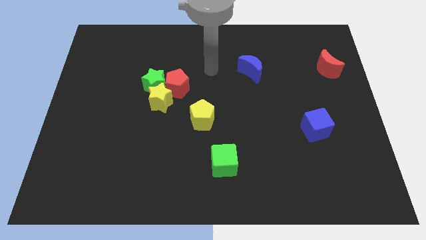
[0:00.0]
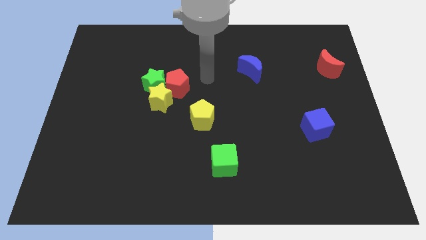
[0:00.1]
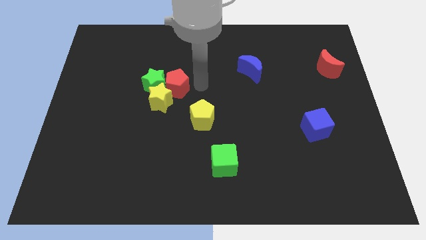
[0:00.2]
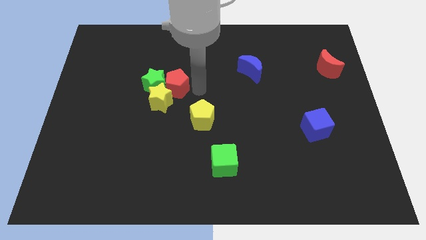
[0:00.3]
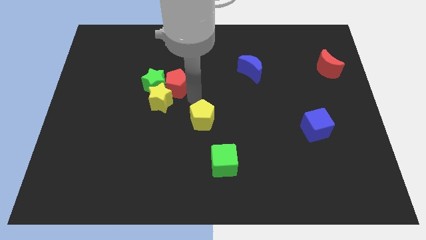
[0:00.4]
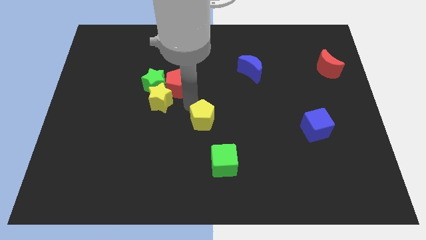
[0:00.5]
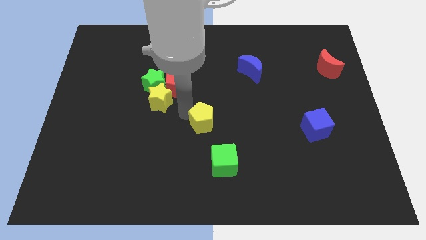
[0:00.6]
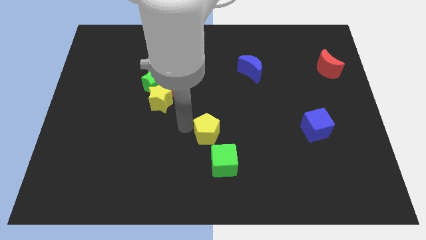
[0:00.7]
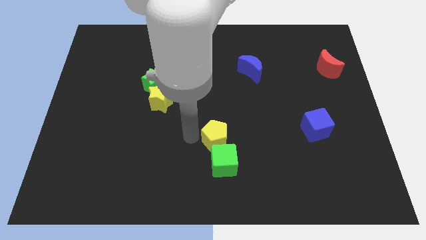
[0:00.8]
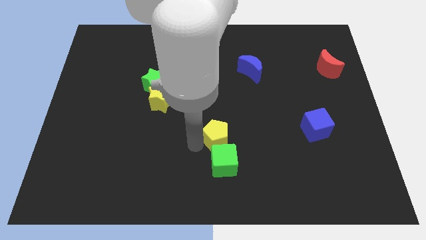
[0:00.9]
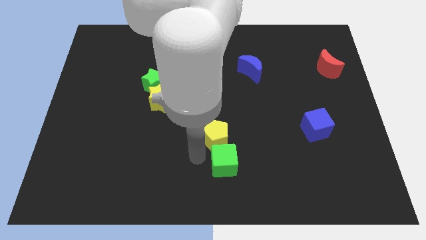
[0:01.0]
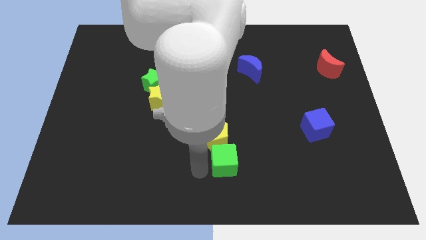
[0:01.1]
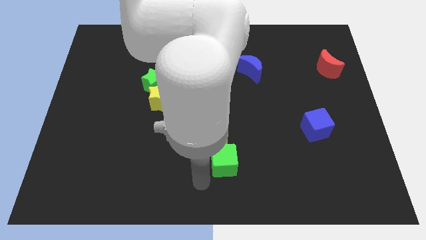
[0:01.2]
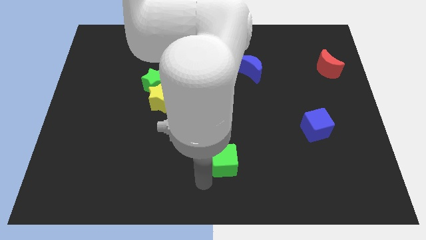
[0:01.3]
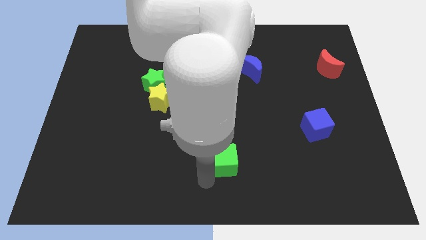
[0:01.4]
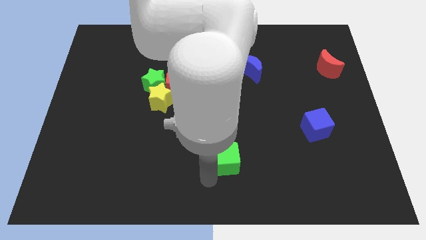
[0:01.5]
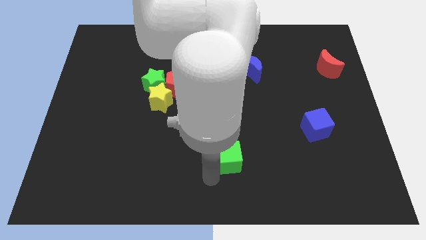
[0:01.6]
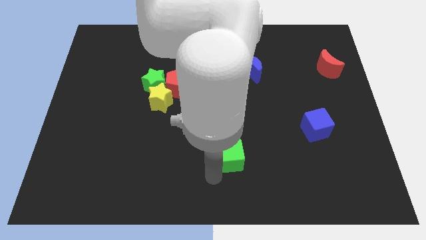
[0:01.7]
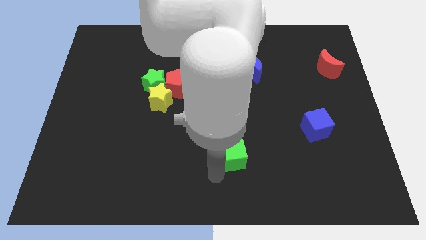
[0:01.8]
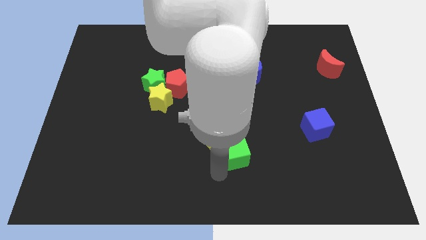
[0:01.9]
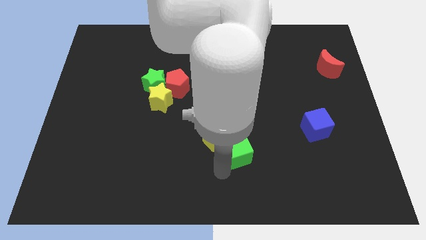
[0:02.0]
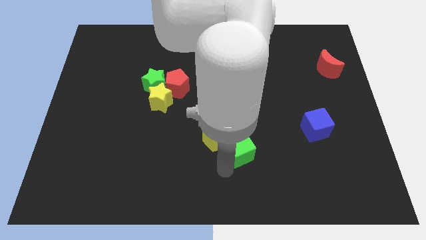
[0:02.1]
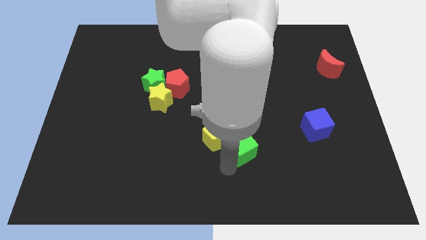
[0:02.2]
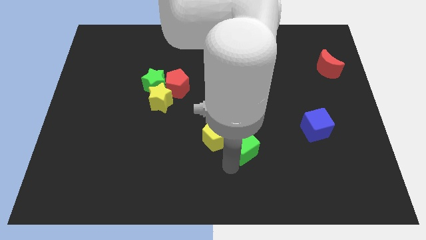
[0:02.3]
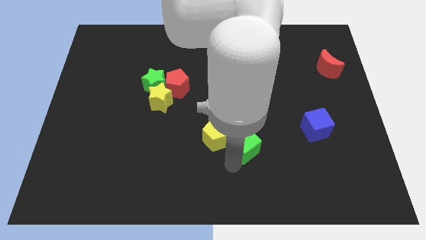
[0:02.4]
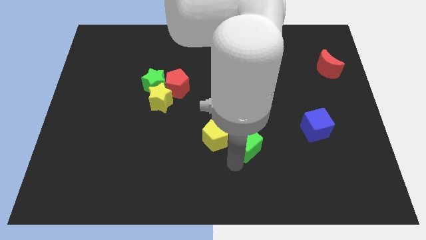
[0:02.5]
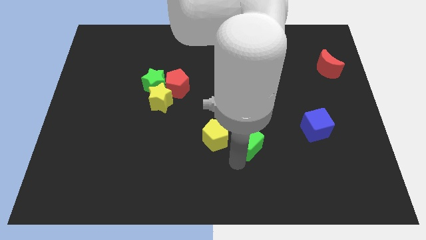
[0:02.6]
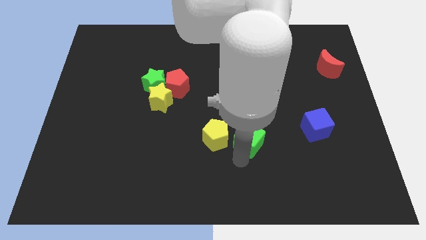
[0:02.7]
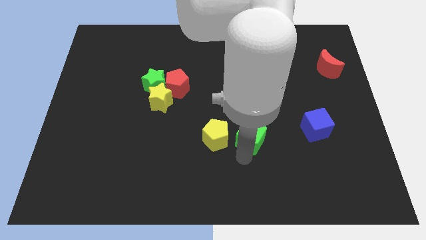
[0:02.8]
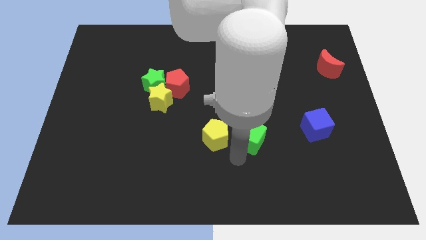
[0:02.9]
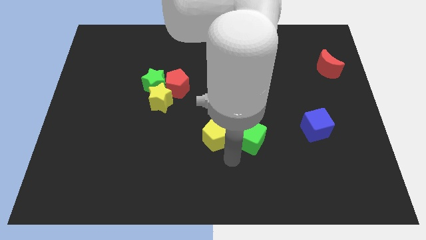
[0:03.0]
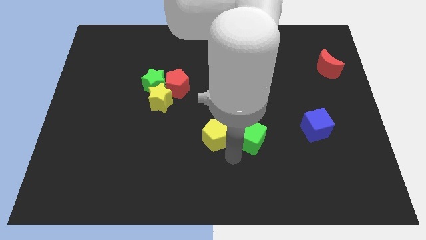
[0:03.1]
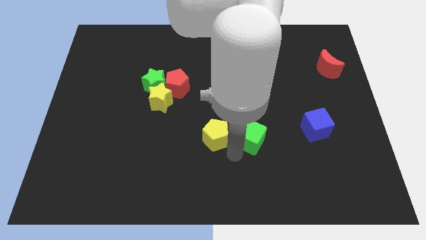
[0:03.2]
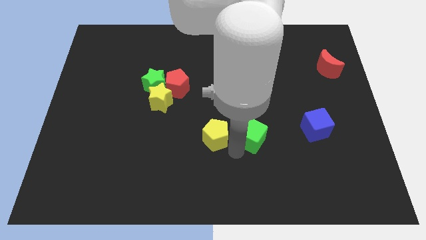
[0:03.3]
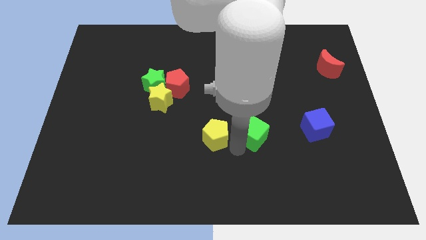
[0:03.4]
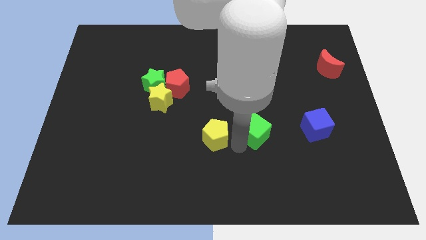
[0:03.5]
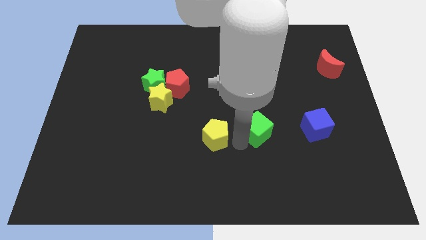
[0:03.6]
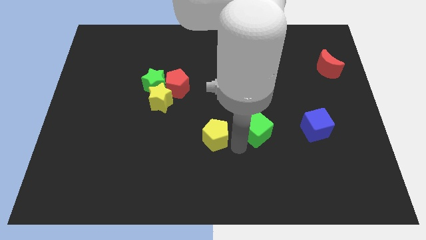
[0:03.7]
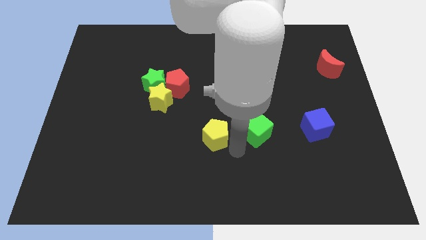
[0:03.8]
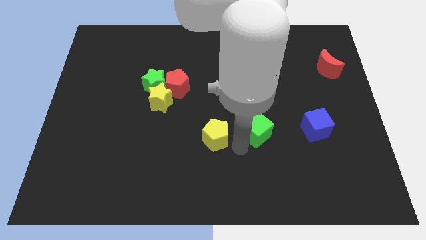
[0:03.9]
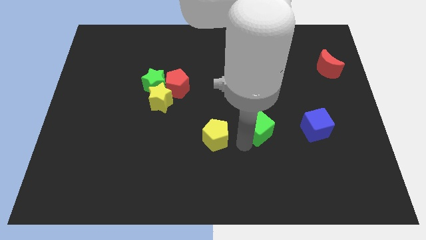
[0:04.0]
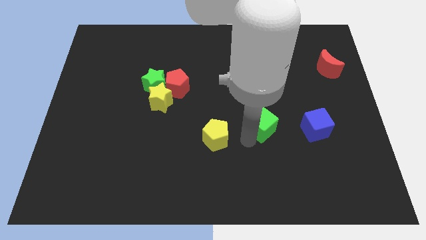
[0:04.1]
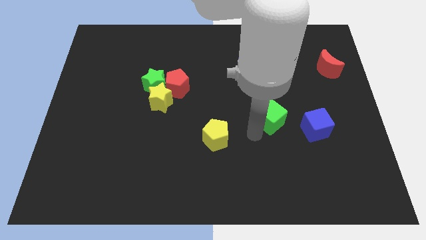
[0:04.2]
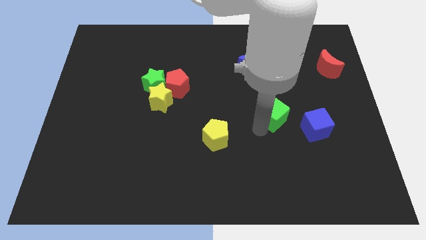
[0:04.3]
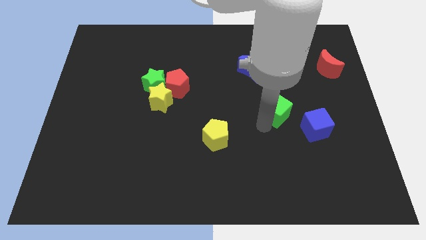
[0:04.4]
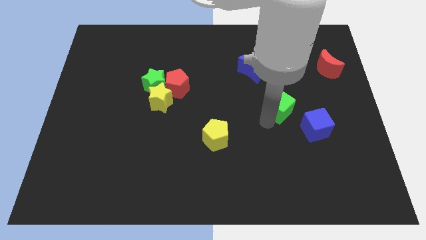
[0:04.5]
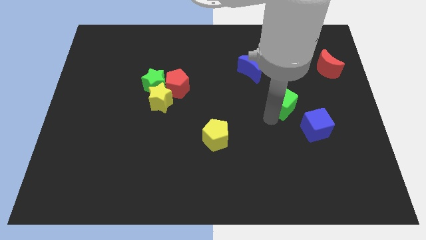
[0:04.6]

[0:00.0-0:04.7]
slide the green cube up and then to the right

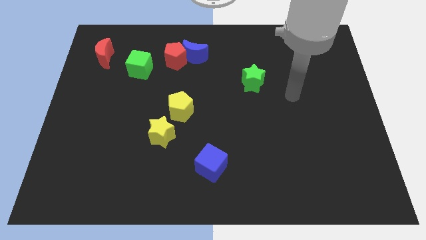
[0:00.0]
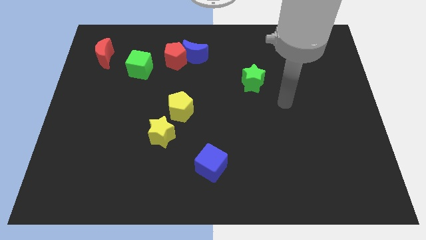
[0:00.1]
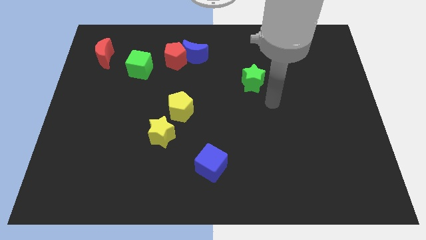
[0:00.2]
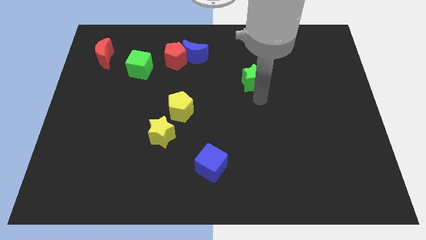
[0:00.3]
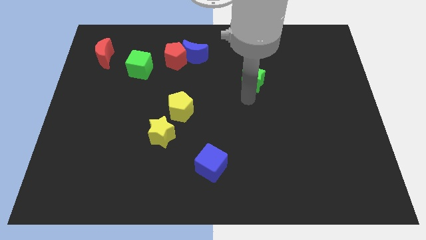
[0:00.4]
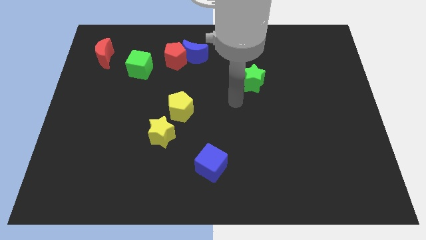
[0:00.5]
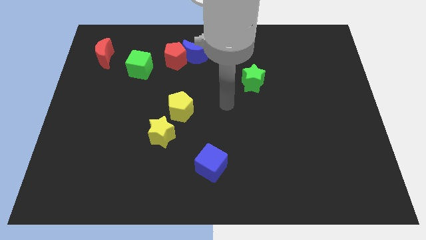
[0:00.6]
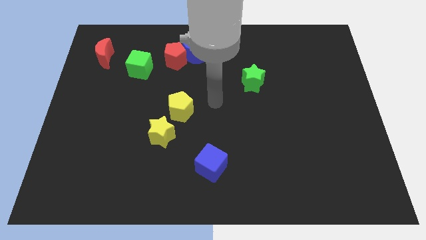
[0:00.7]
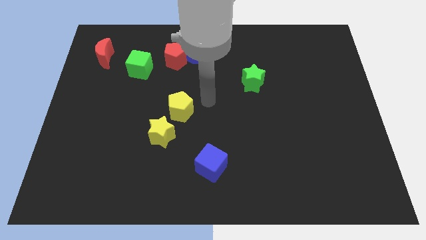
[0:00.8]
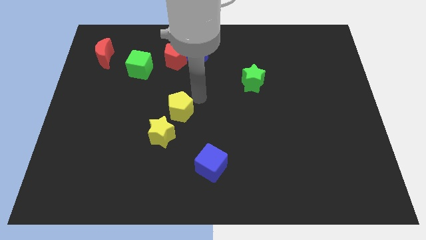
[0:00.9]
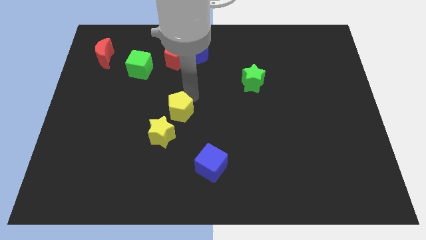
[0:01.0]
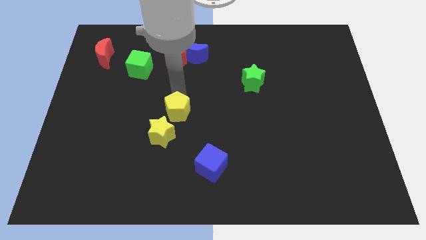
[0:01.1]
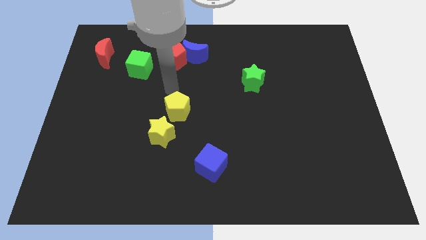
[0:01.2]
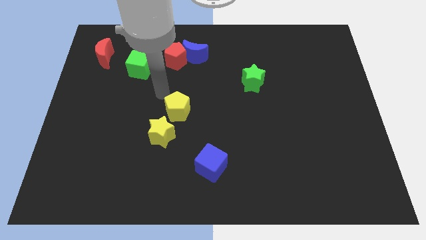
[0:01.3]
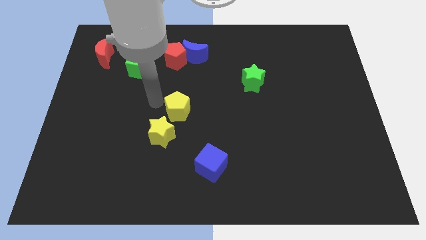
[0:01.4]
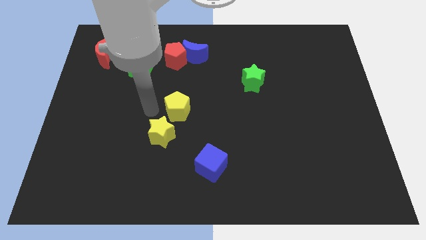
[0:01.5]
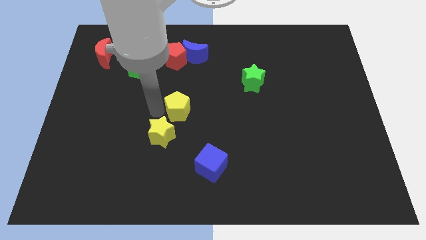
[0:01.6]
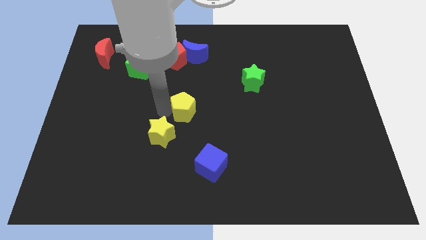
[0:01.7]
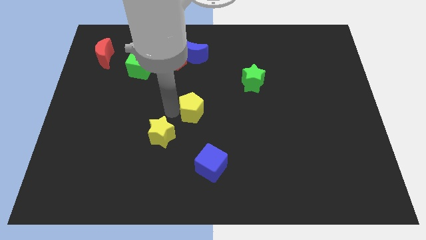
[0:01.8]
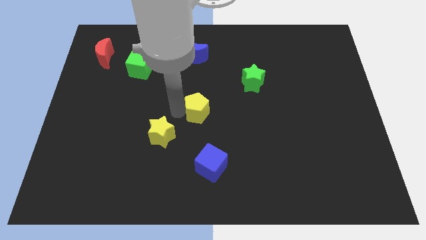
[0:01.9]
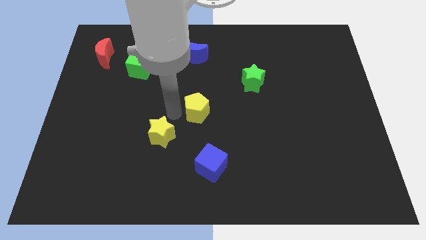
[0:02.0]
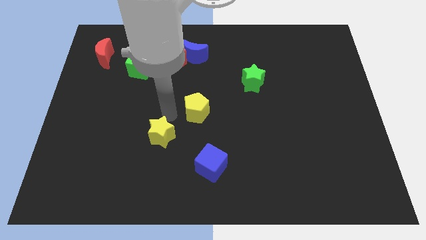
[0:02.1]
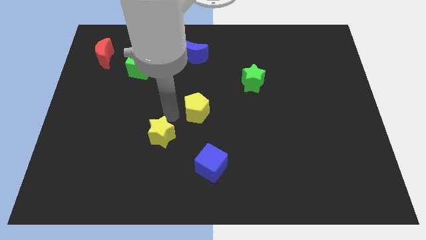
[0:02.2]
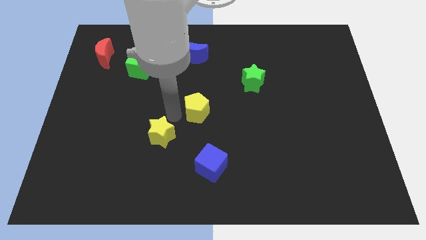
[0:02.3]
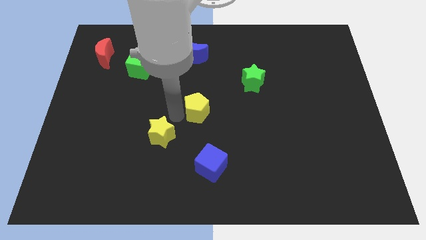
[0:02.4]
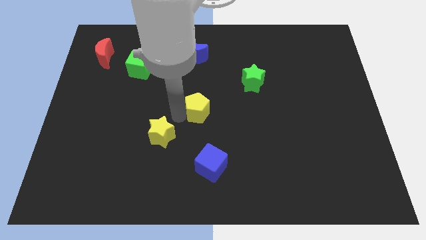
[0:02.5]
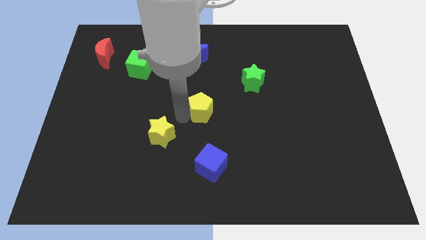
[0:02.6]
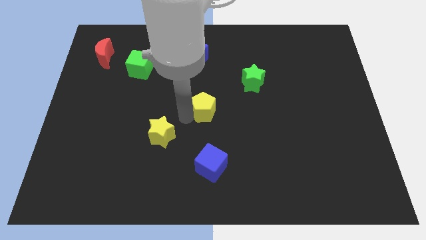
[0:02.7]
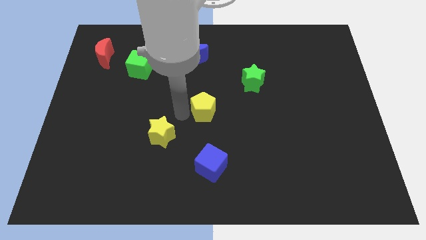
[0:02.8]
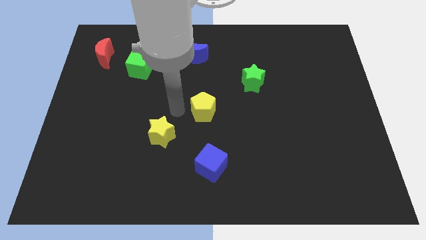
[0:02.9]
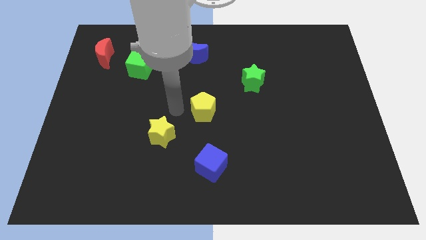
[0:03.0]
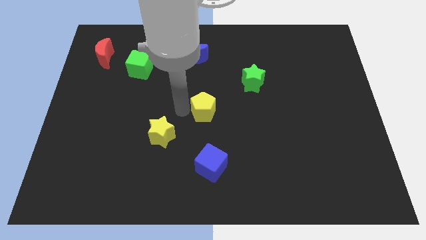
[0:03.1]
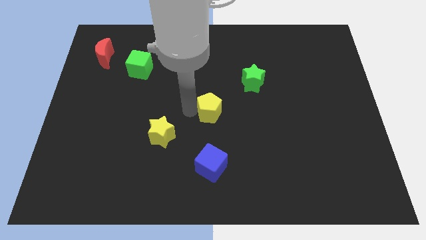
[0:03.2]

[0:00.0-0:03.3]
push the yellow pentagon slightly to the right
